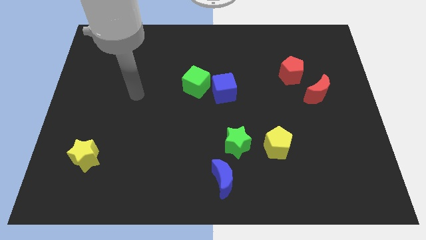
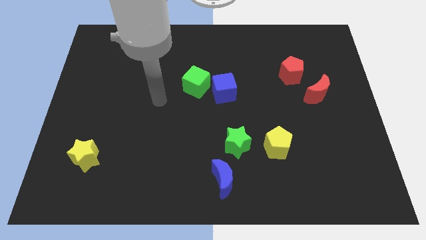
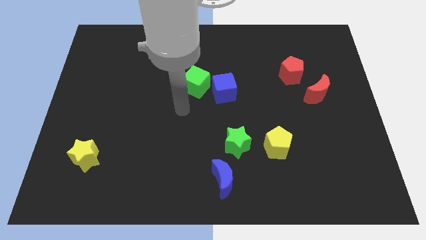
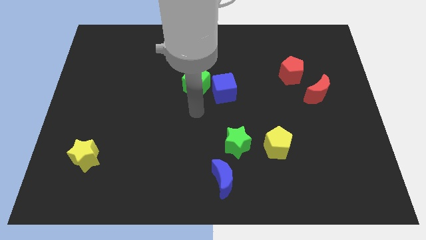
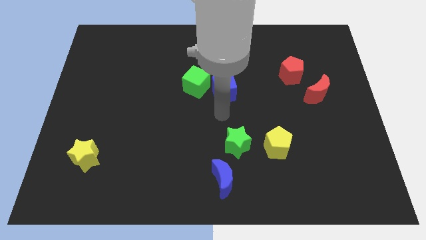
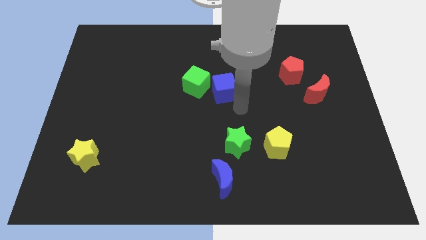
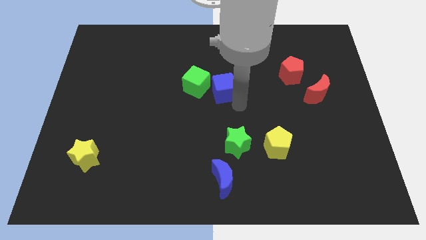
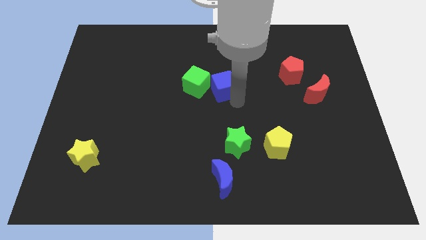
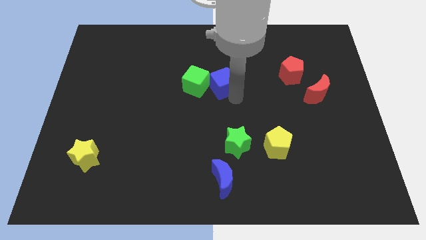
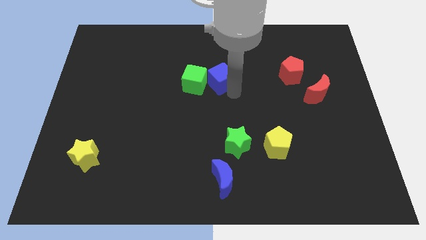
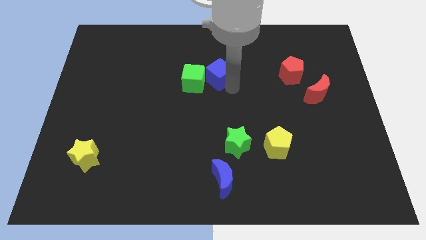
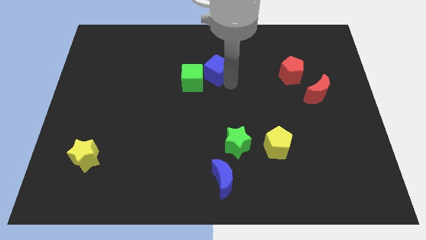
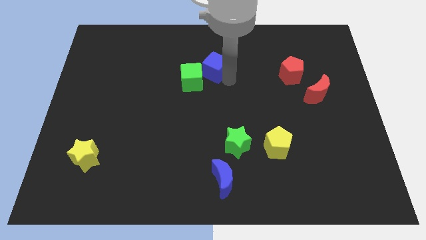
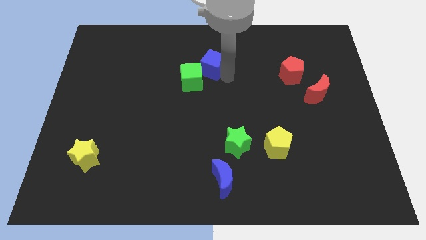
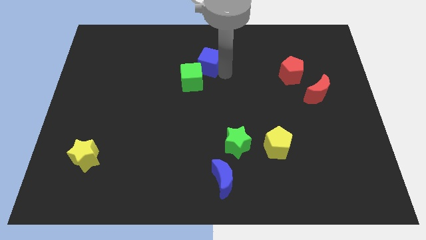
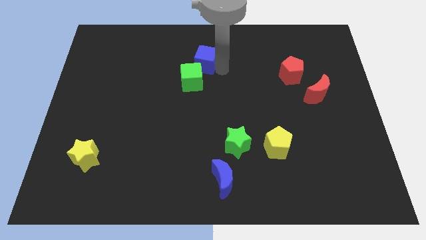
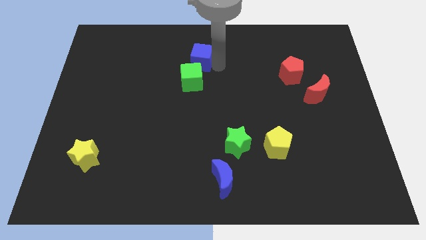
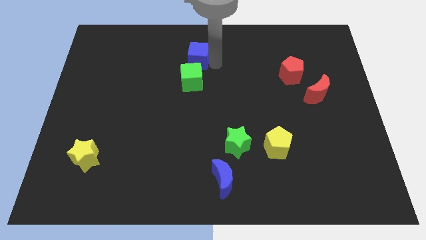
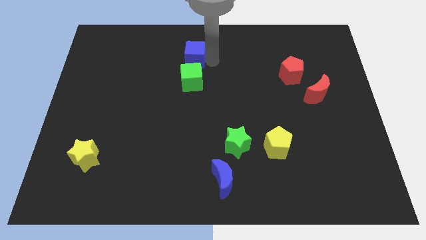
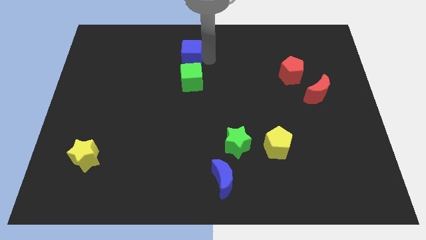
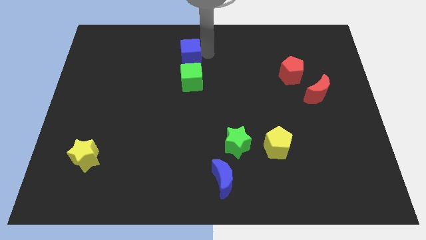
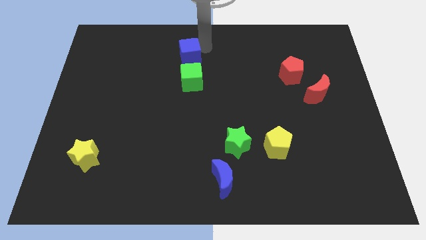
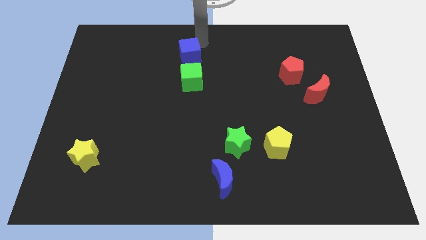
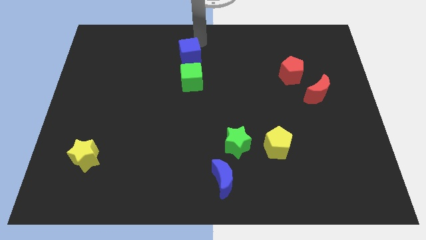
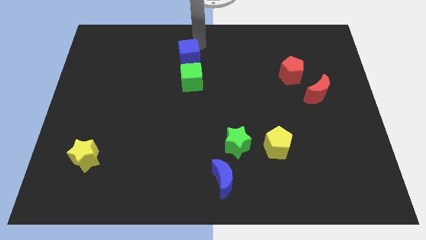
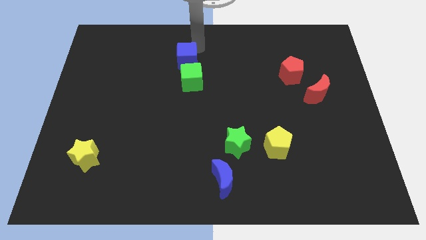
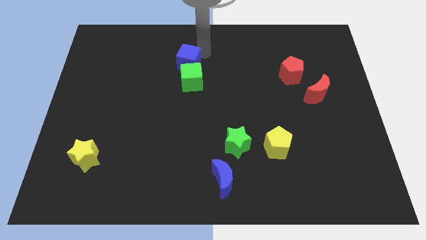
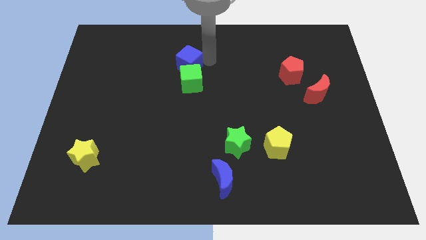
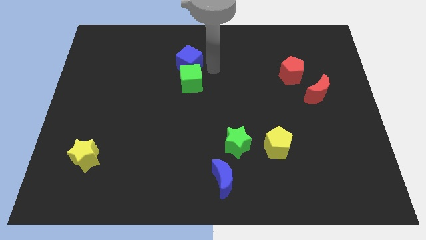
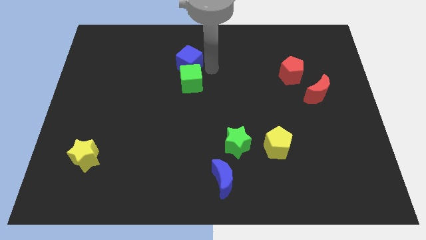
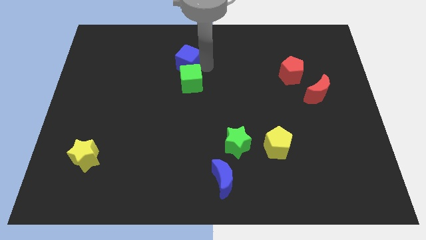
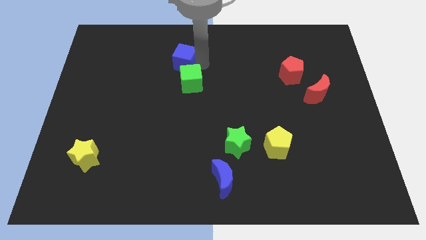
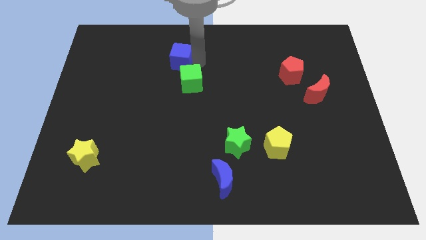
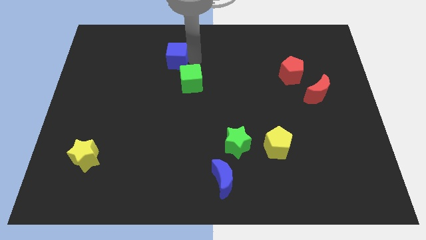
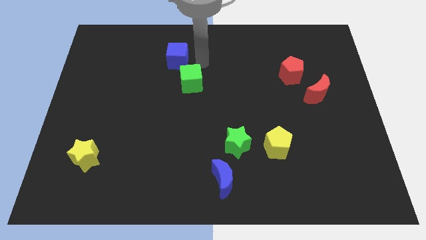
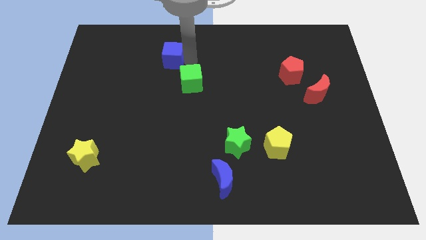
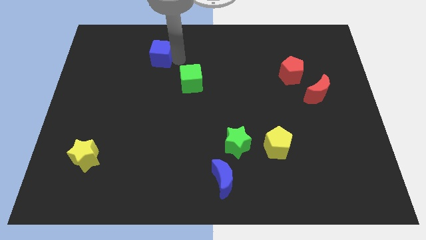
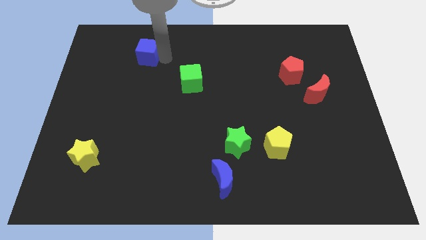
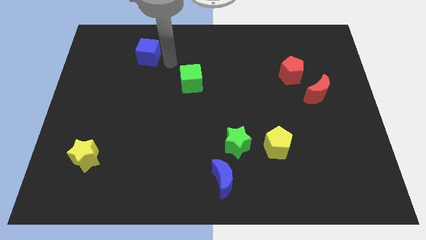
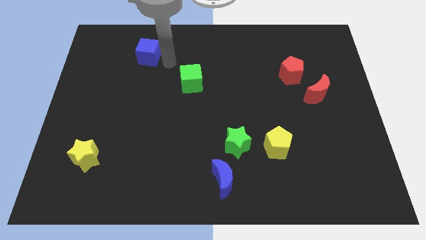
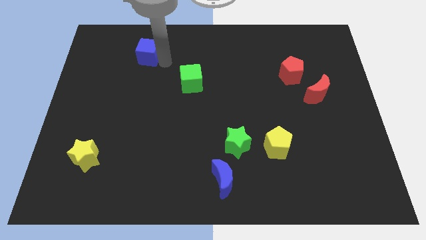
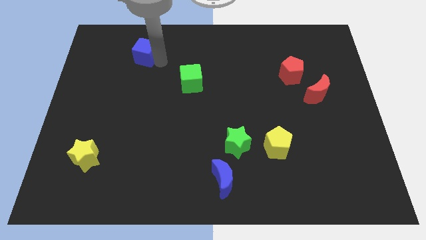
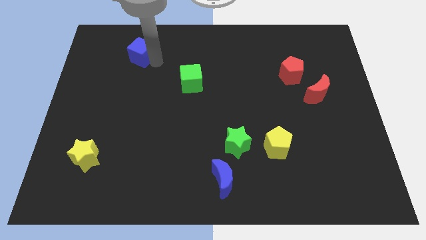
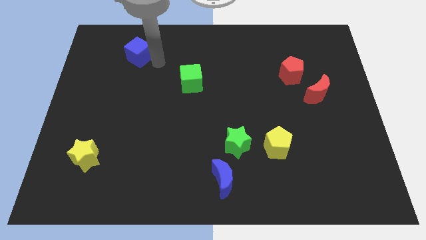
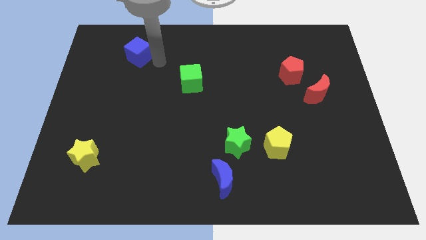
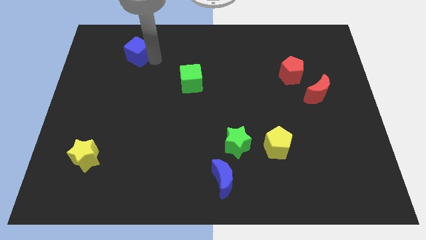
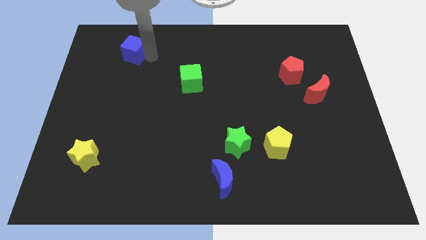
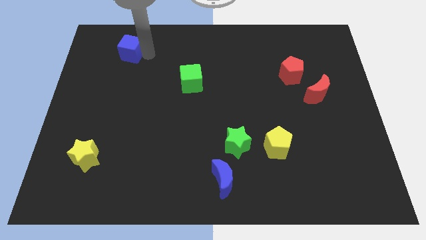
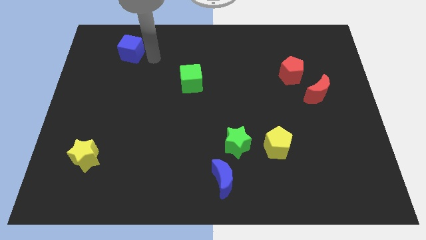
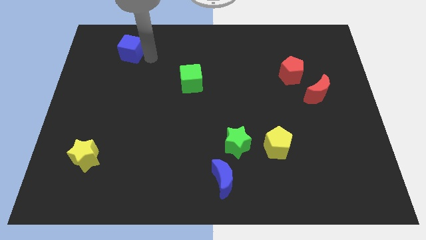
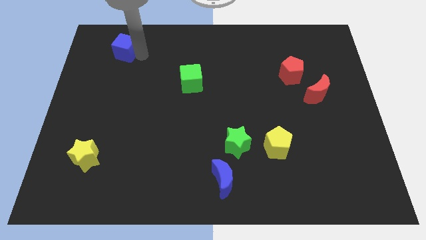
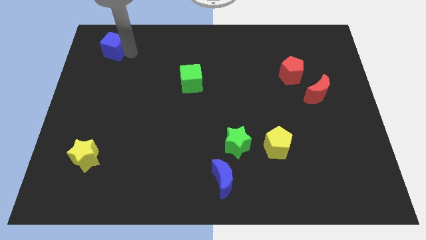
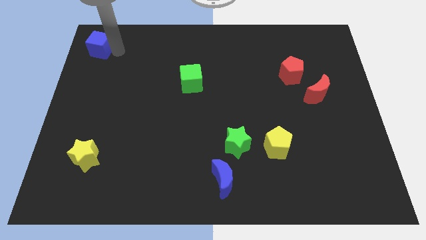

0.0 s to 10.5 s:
move the blue cube to the upper left corner

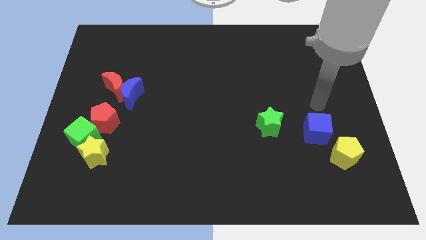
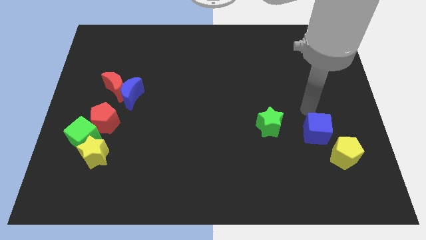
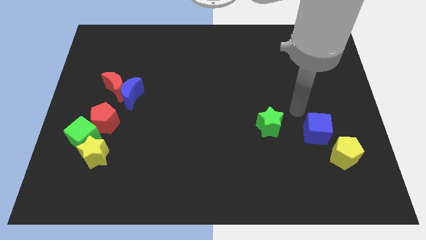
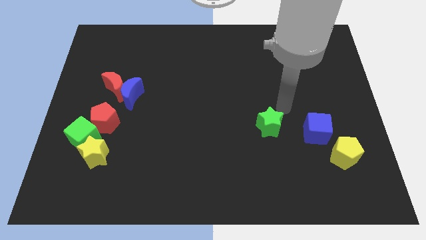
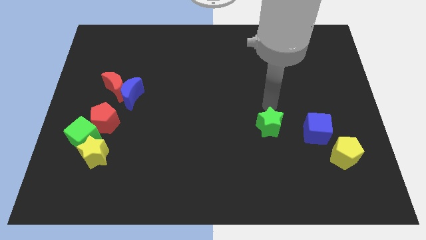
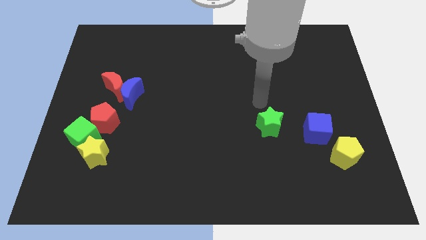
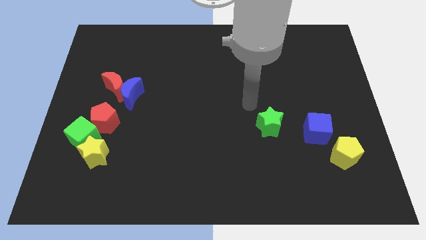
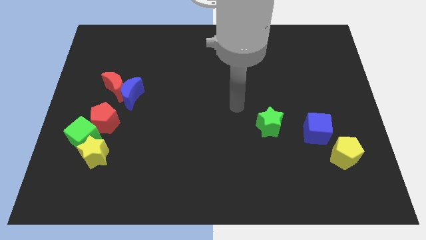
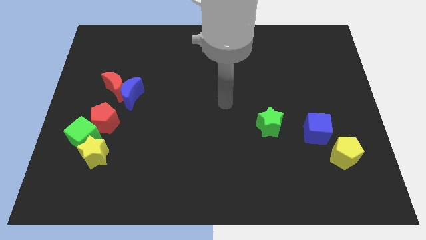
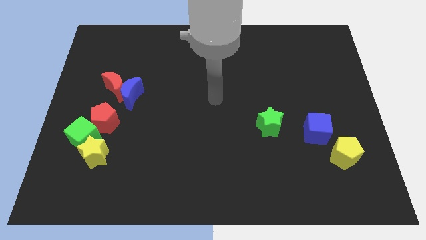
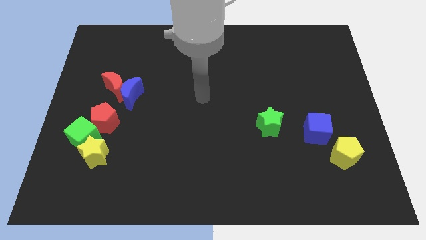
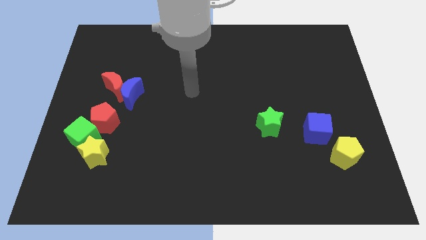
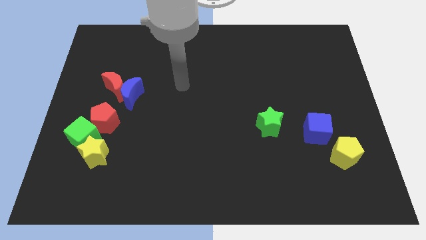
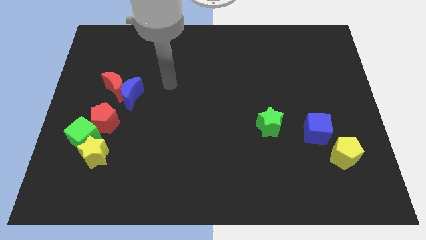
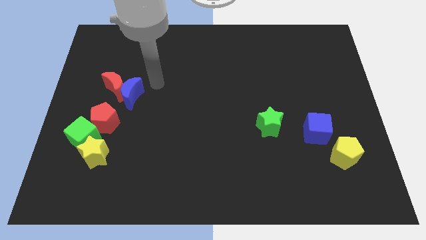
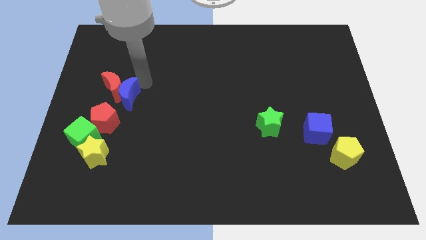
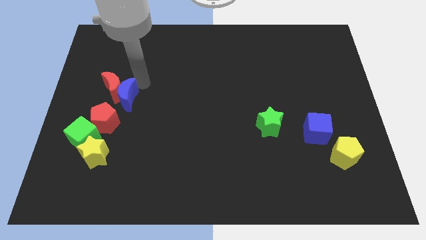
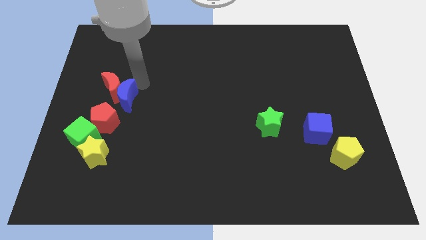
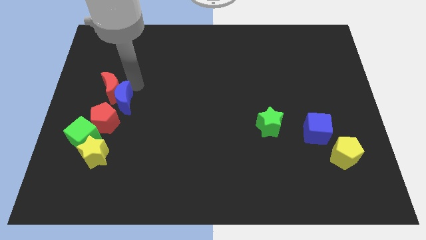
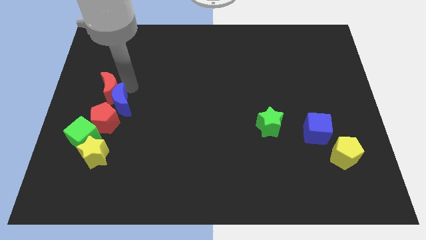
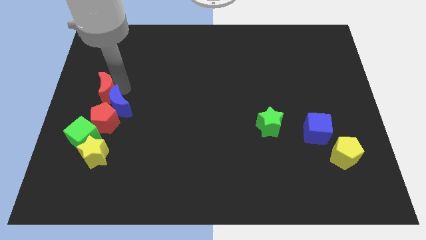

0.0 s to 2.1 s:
slide the red moon to the left side
